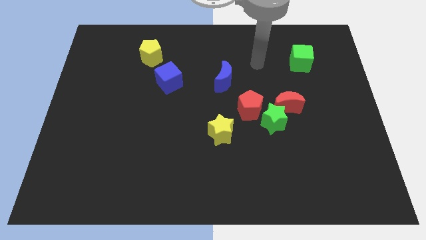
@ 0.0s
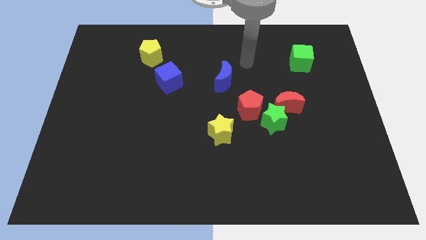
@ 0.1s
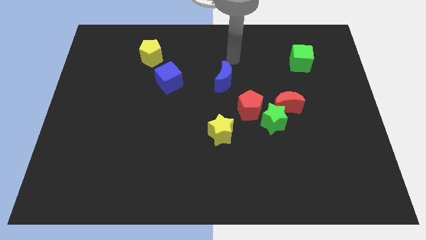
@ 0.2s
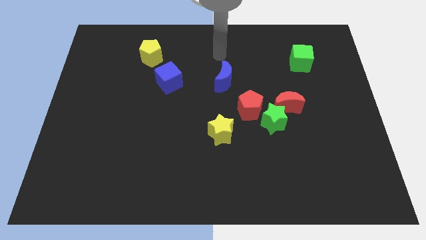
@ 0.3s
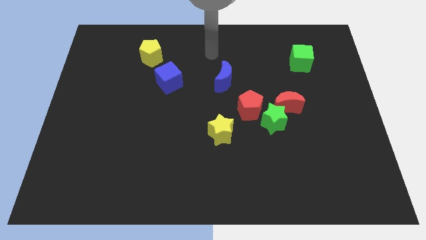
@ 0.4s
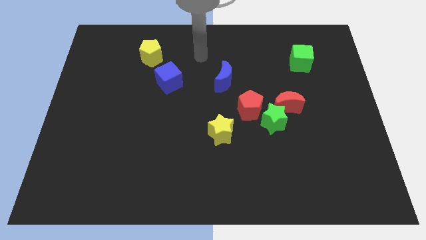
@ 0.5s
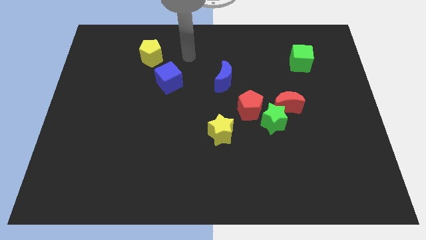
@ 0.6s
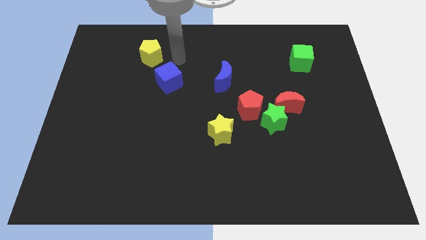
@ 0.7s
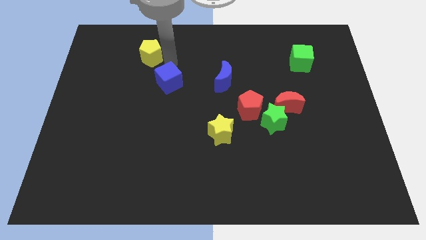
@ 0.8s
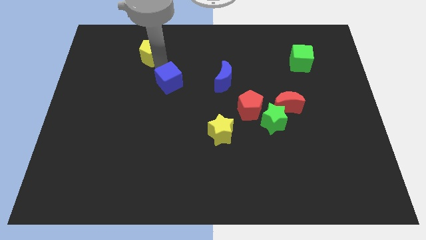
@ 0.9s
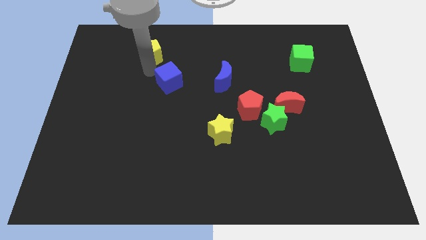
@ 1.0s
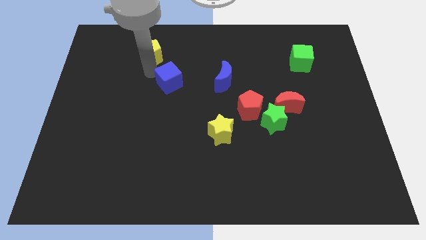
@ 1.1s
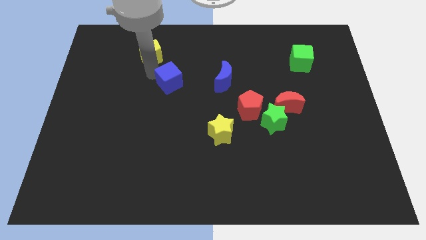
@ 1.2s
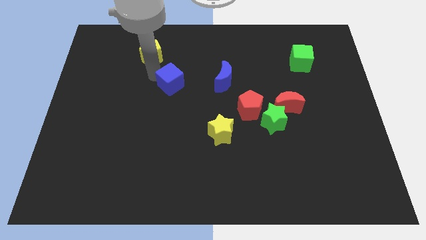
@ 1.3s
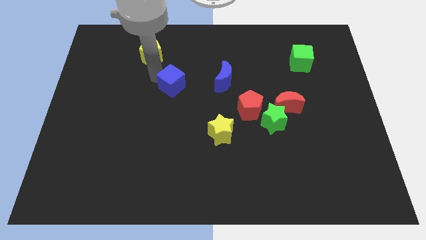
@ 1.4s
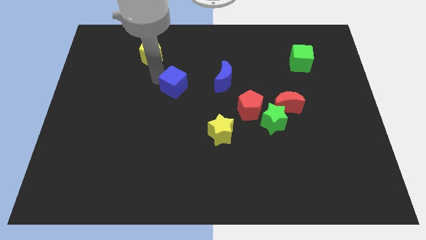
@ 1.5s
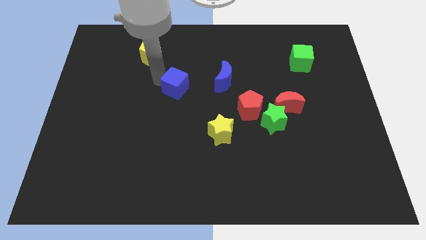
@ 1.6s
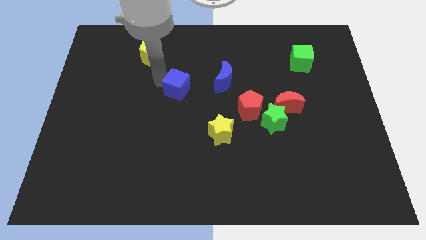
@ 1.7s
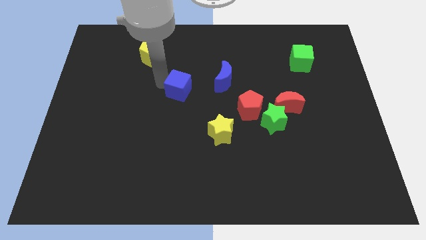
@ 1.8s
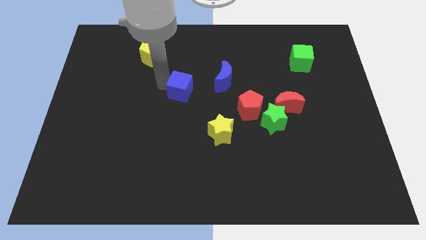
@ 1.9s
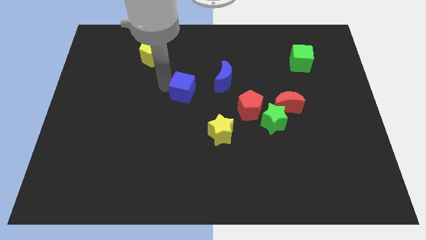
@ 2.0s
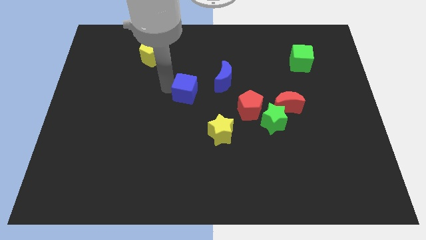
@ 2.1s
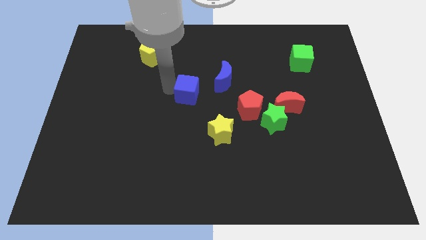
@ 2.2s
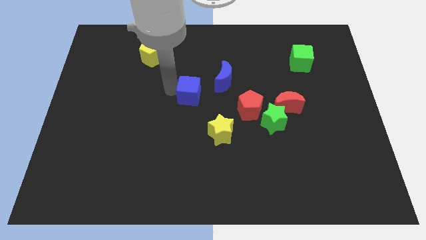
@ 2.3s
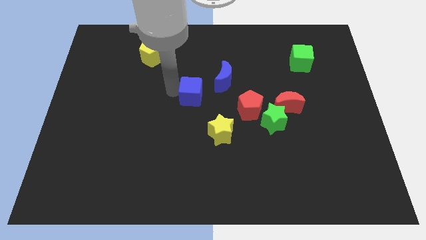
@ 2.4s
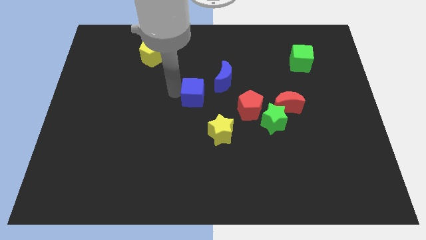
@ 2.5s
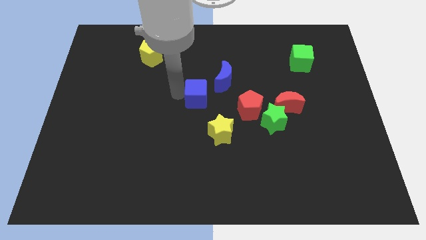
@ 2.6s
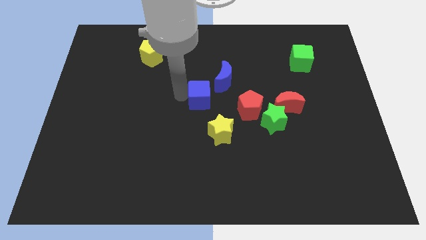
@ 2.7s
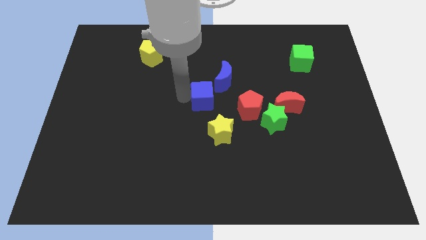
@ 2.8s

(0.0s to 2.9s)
slightly move the blue cube to the right

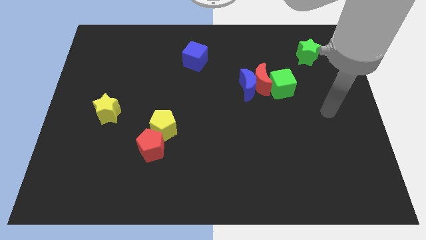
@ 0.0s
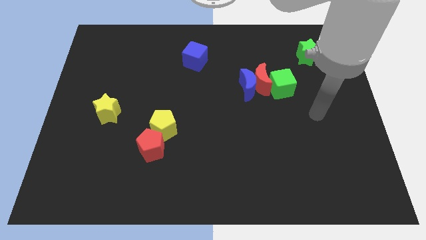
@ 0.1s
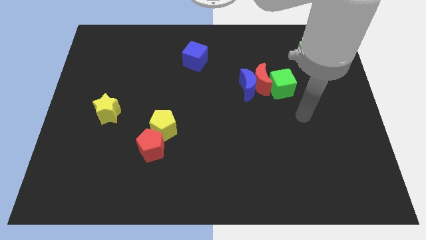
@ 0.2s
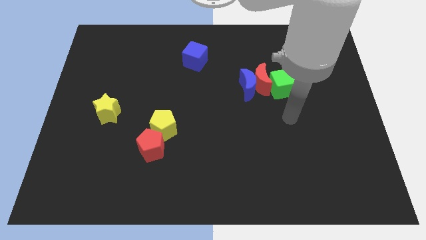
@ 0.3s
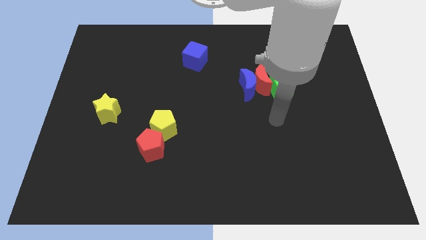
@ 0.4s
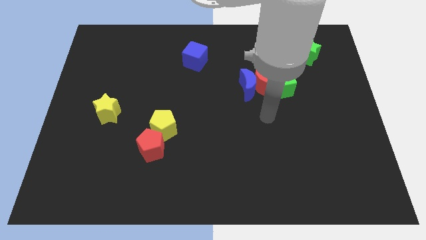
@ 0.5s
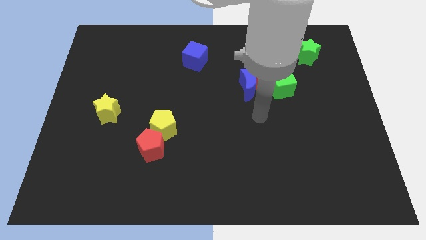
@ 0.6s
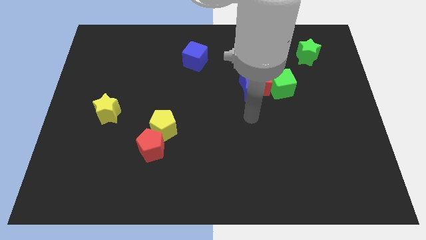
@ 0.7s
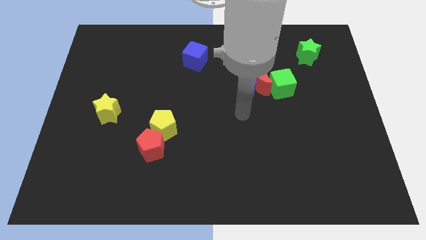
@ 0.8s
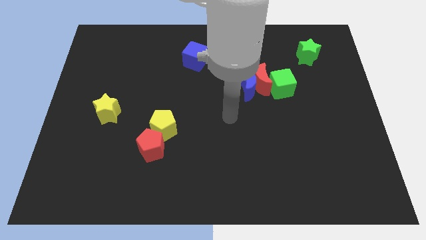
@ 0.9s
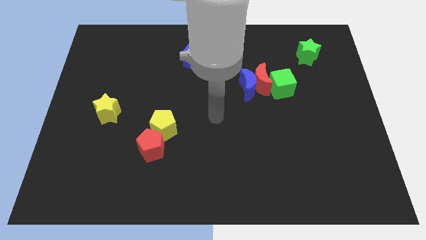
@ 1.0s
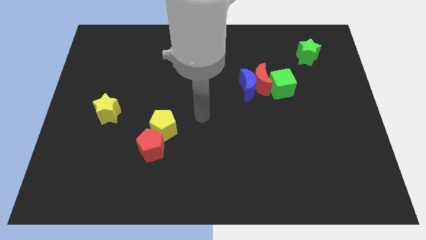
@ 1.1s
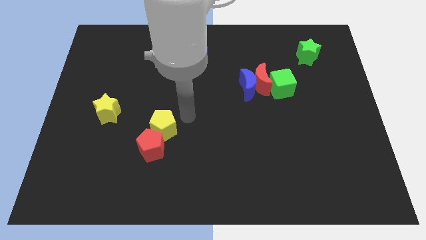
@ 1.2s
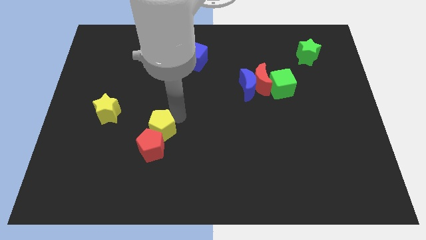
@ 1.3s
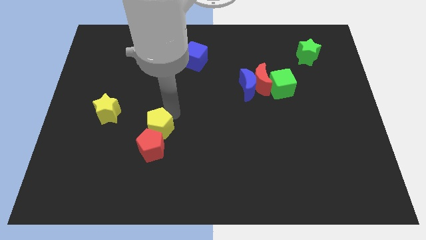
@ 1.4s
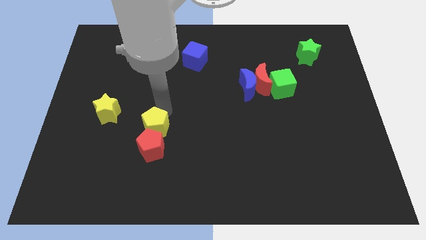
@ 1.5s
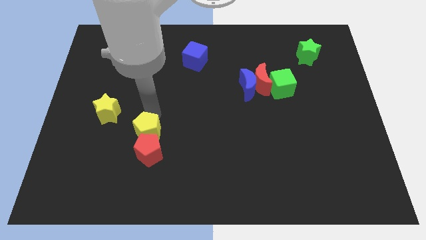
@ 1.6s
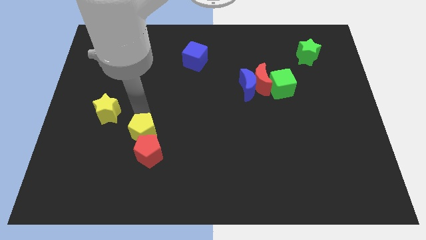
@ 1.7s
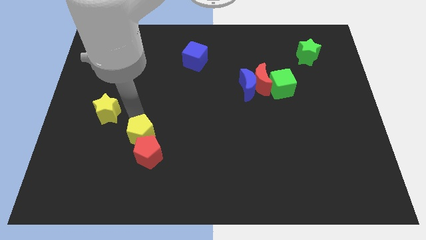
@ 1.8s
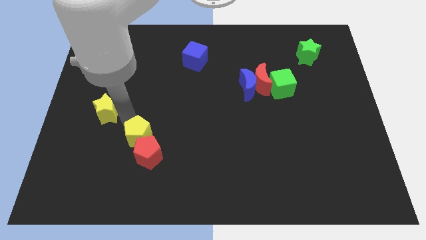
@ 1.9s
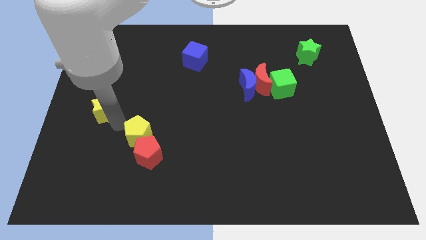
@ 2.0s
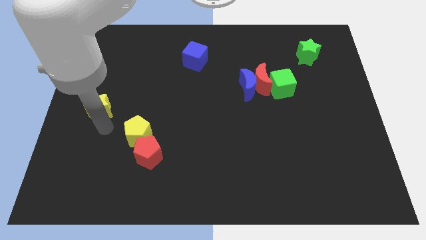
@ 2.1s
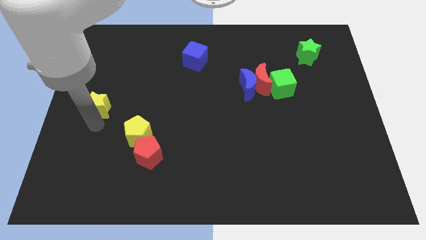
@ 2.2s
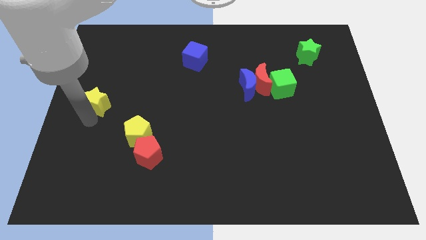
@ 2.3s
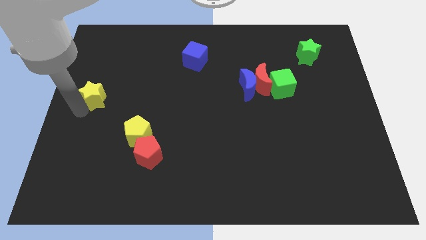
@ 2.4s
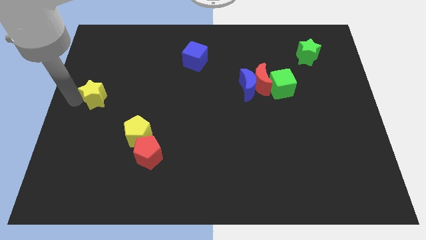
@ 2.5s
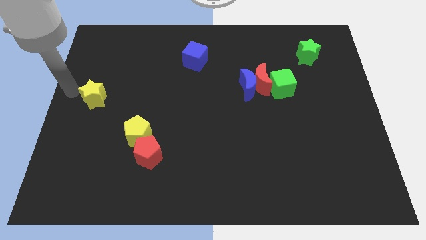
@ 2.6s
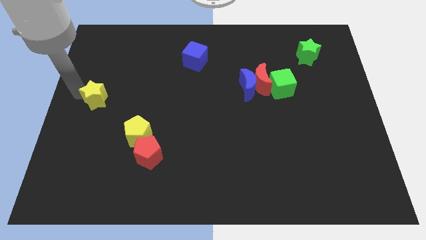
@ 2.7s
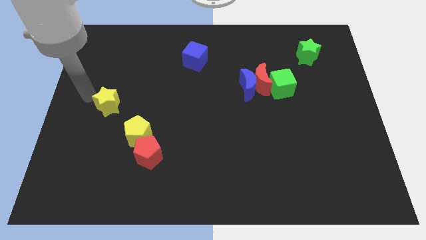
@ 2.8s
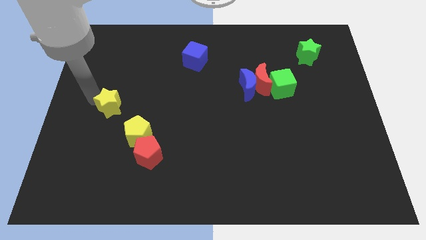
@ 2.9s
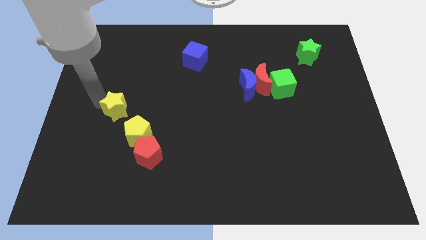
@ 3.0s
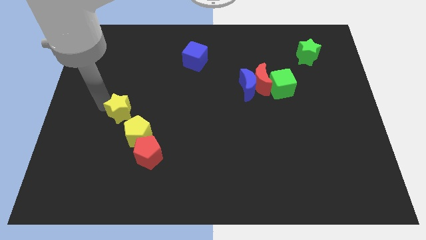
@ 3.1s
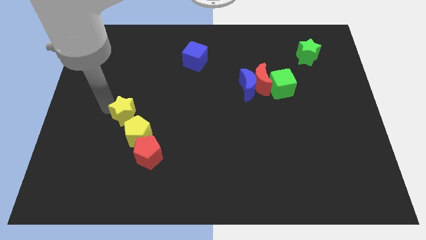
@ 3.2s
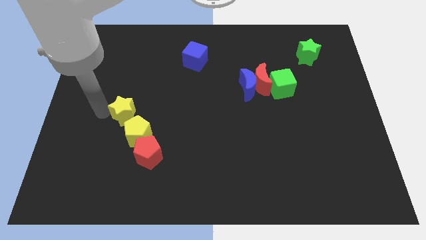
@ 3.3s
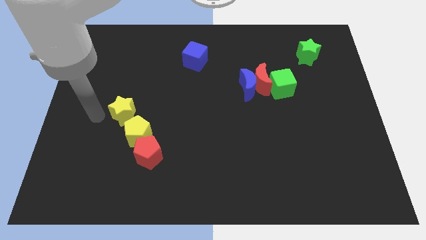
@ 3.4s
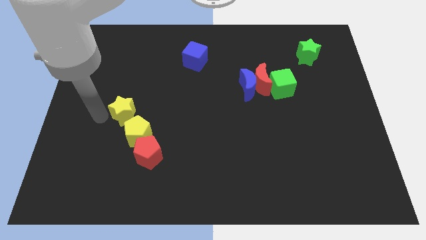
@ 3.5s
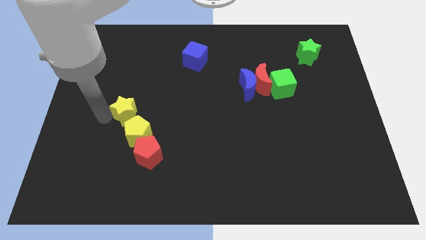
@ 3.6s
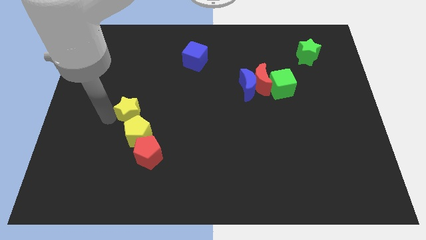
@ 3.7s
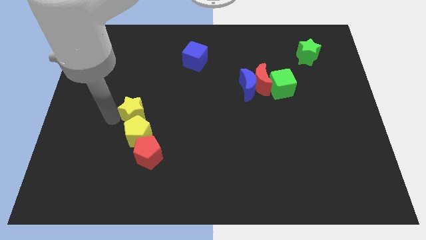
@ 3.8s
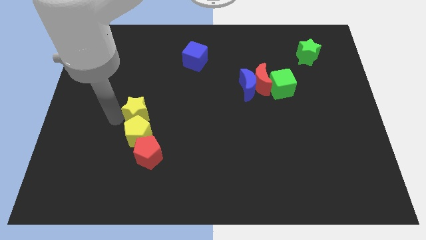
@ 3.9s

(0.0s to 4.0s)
slightly push the yellow star to the right

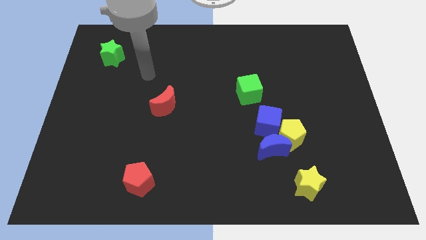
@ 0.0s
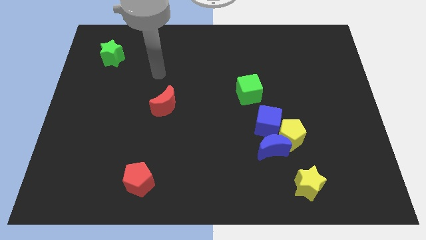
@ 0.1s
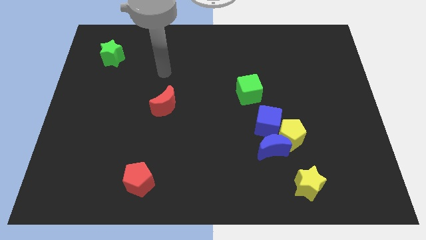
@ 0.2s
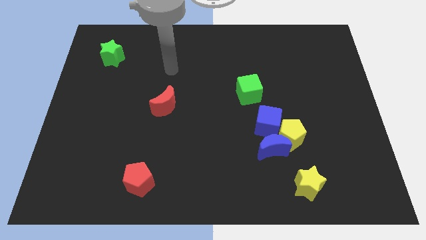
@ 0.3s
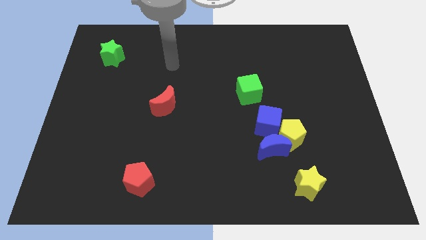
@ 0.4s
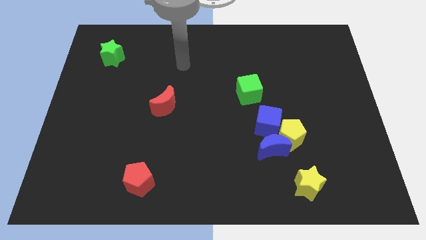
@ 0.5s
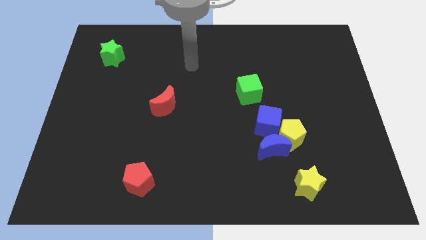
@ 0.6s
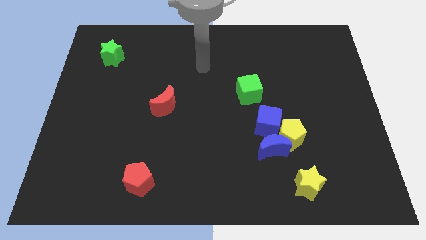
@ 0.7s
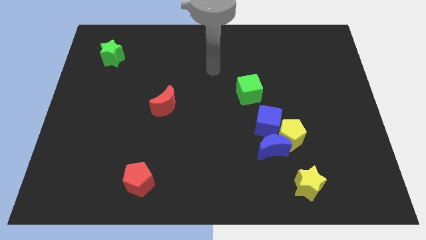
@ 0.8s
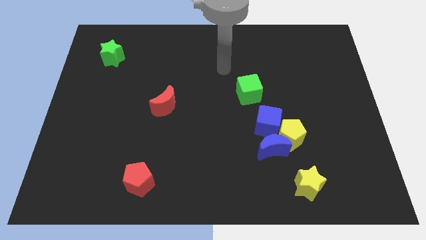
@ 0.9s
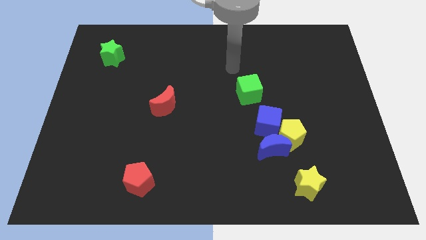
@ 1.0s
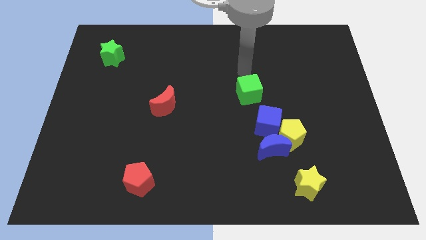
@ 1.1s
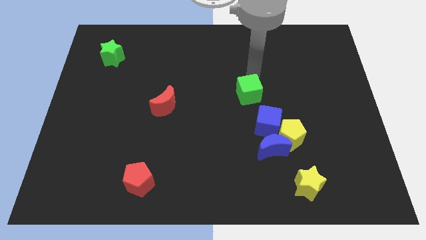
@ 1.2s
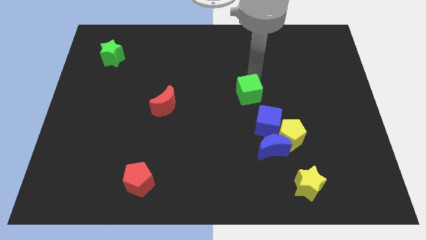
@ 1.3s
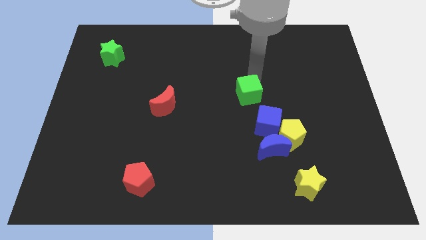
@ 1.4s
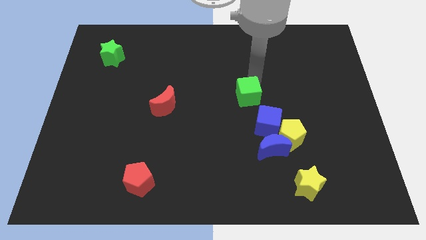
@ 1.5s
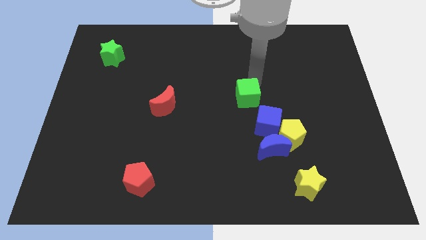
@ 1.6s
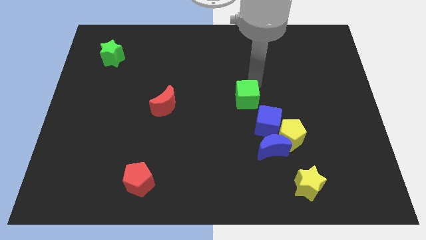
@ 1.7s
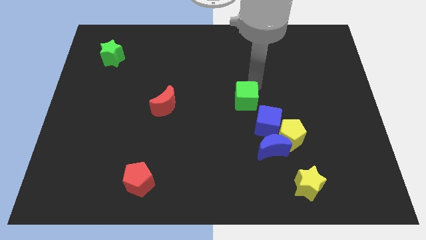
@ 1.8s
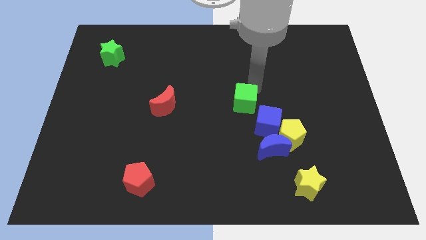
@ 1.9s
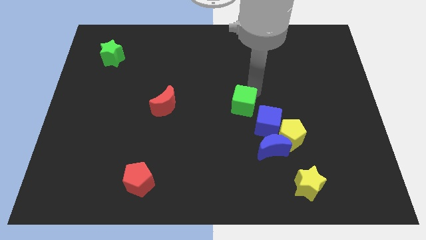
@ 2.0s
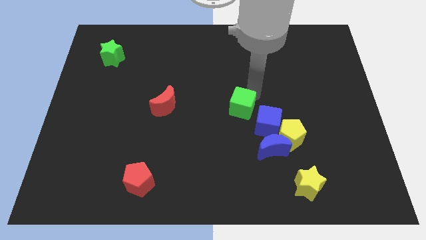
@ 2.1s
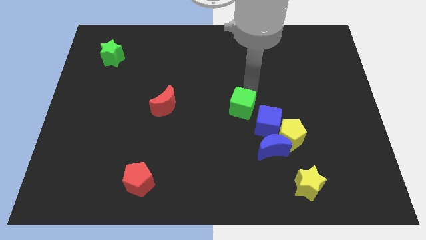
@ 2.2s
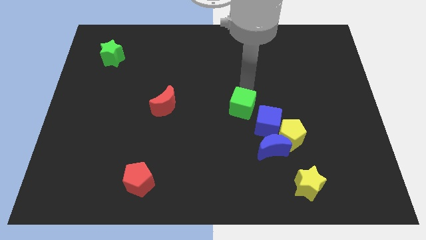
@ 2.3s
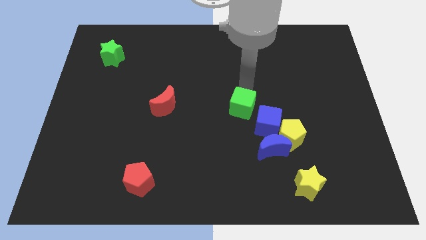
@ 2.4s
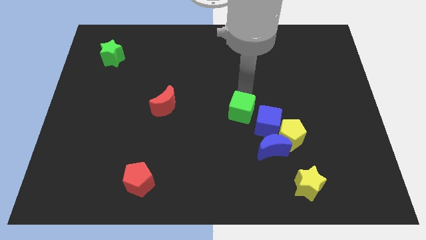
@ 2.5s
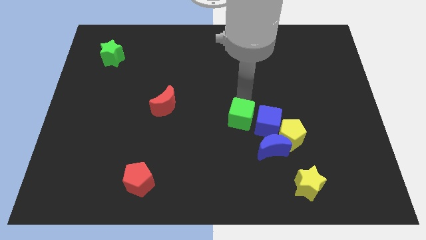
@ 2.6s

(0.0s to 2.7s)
slightly move the green cube downwards
